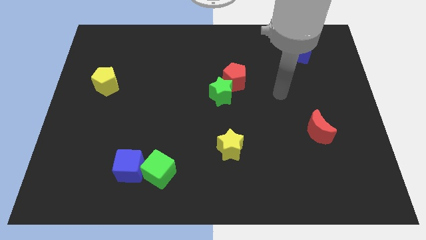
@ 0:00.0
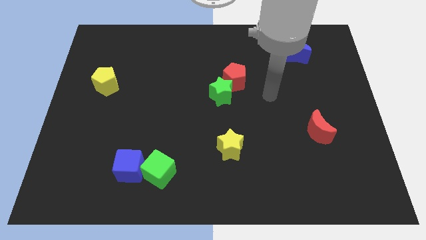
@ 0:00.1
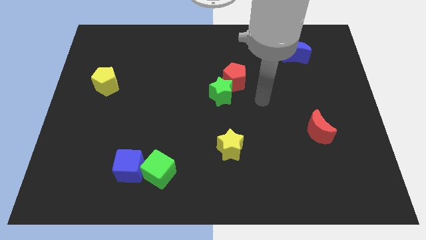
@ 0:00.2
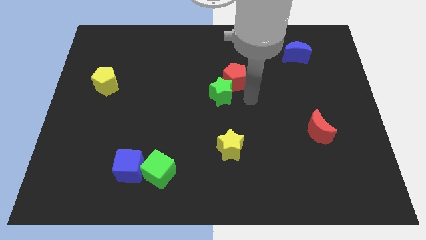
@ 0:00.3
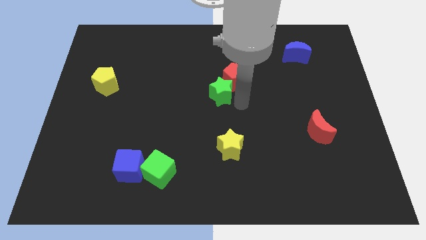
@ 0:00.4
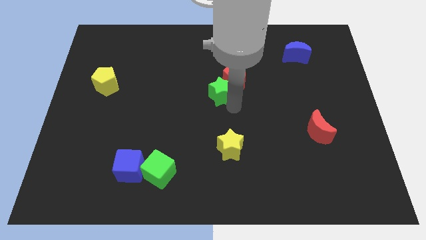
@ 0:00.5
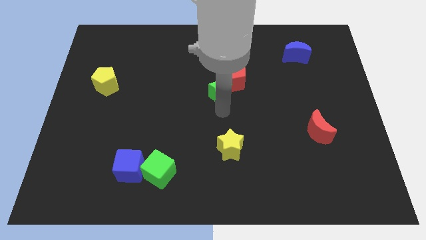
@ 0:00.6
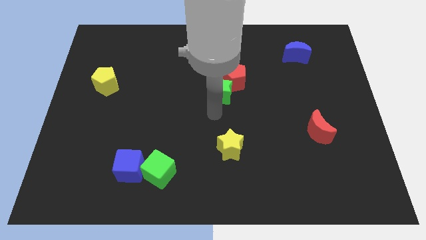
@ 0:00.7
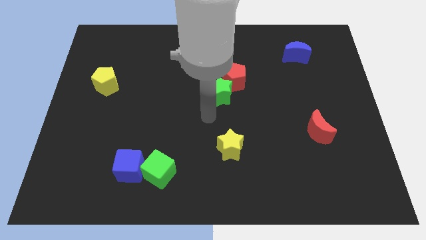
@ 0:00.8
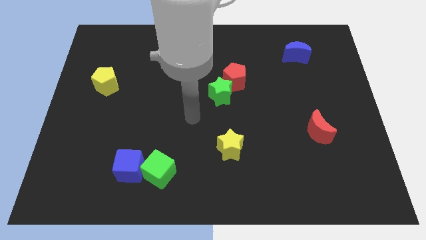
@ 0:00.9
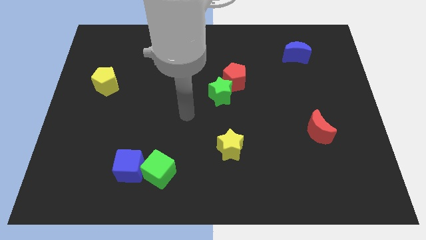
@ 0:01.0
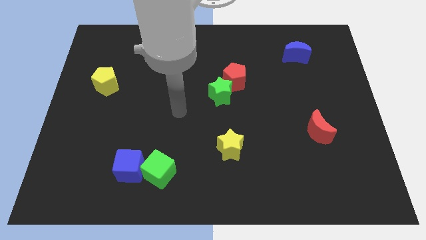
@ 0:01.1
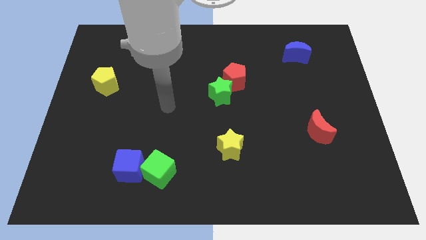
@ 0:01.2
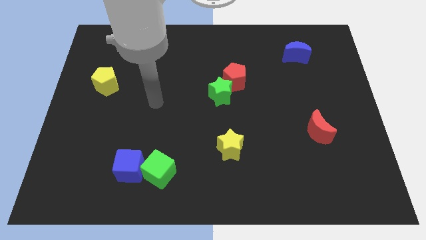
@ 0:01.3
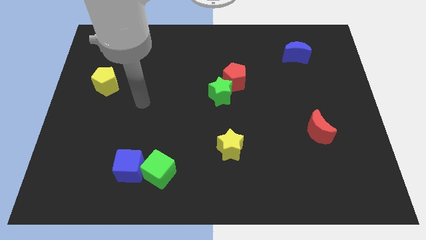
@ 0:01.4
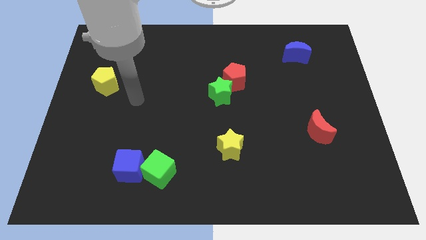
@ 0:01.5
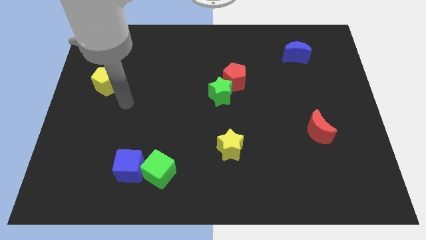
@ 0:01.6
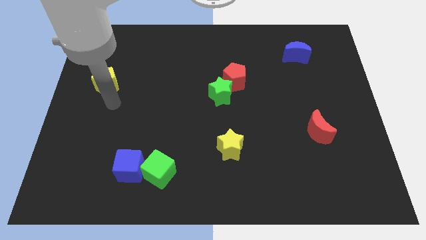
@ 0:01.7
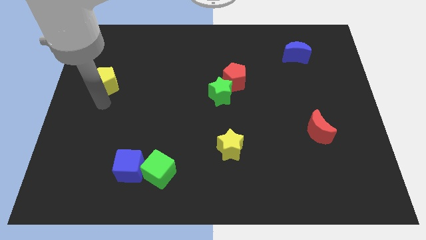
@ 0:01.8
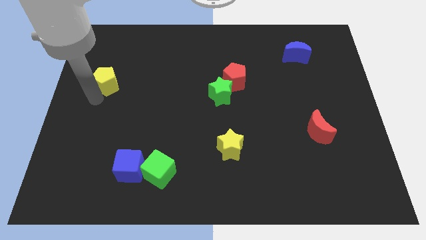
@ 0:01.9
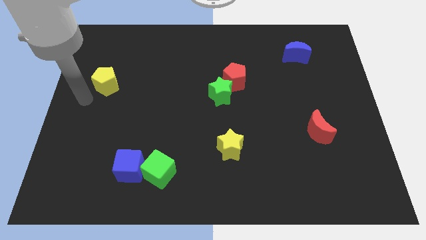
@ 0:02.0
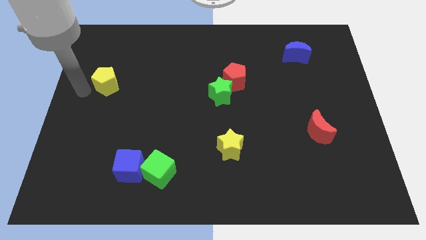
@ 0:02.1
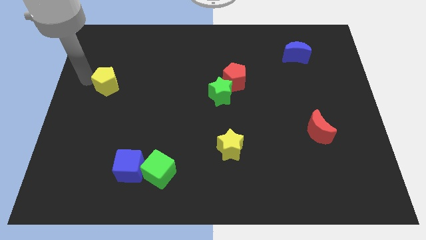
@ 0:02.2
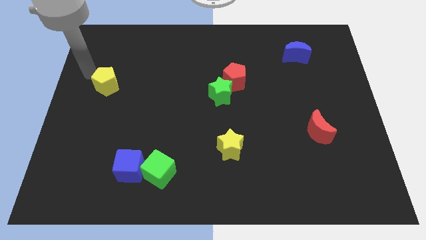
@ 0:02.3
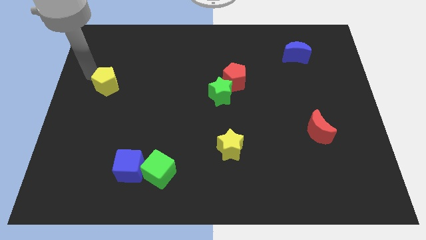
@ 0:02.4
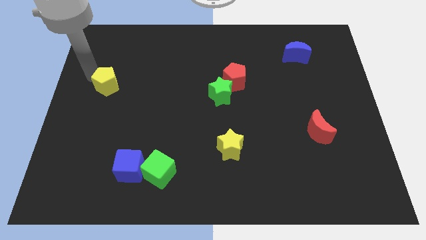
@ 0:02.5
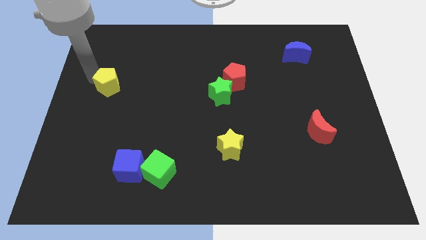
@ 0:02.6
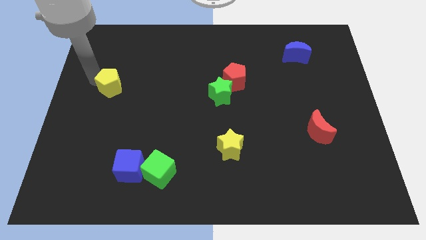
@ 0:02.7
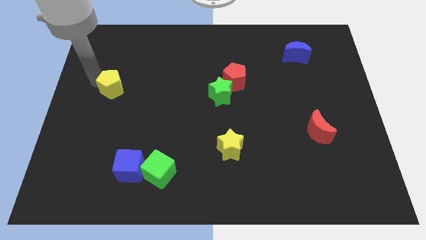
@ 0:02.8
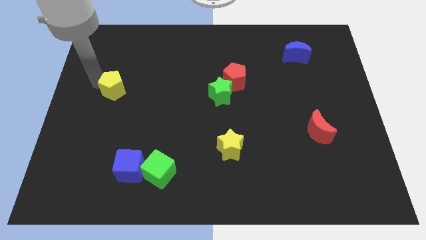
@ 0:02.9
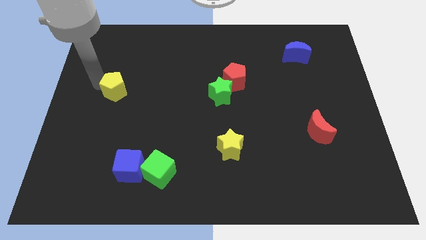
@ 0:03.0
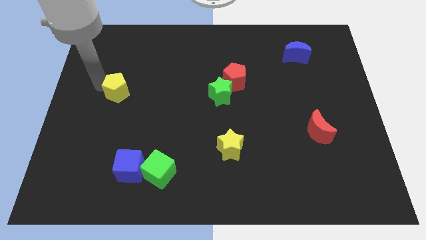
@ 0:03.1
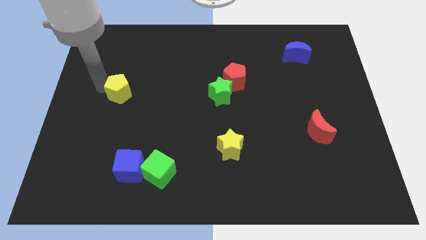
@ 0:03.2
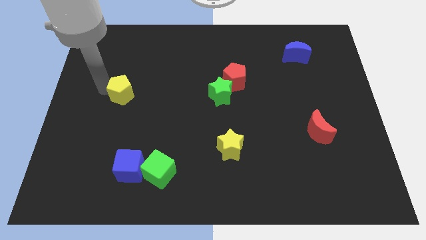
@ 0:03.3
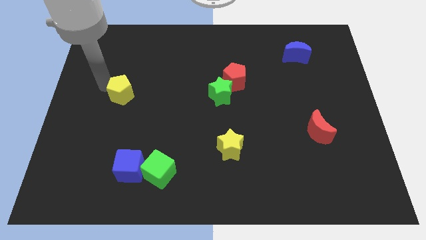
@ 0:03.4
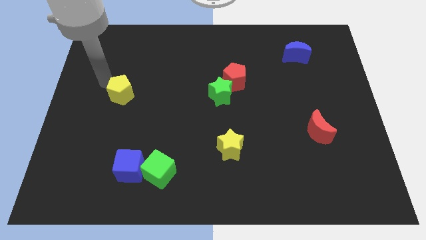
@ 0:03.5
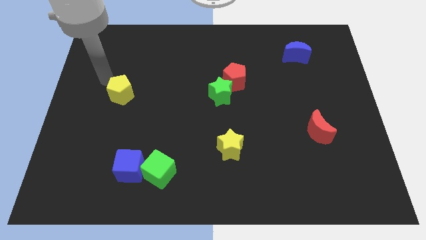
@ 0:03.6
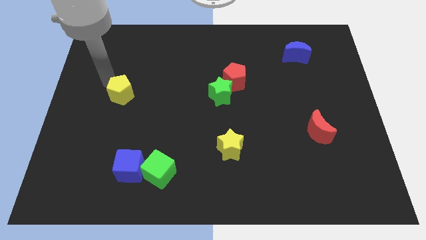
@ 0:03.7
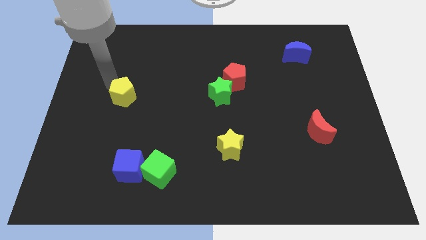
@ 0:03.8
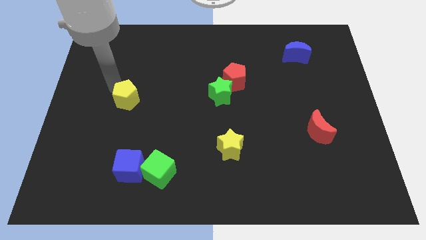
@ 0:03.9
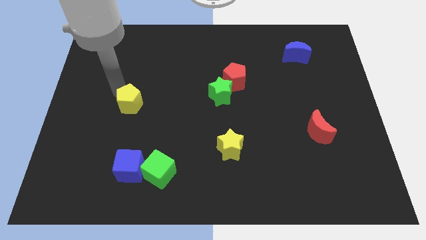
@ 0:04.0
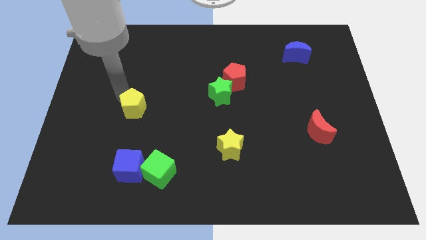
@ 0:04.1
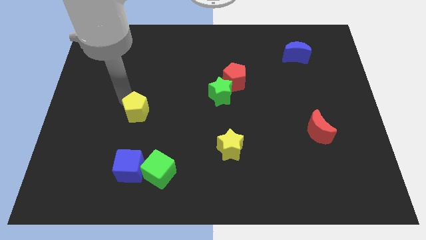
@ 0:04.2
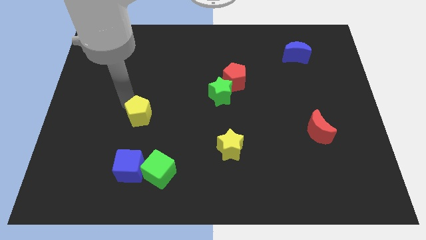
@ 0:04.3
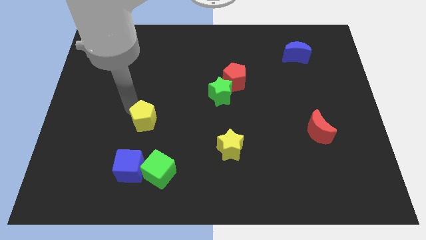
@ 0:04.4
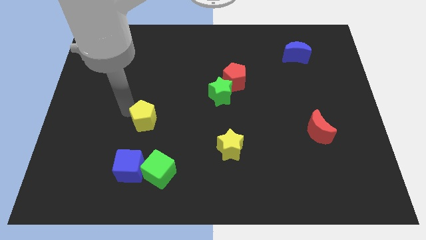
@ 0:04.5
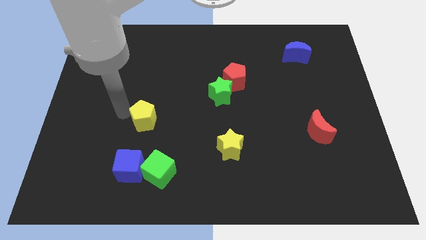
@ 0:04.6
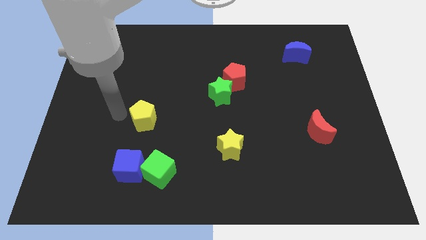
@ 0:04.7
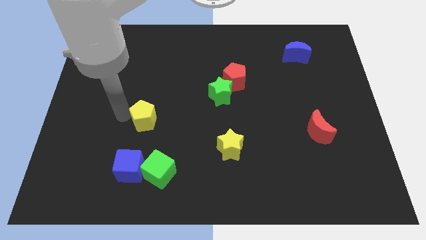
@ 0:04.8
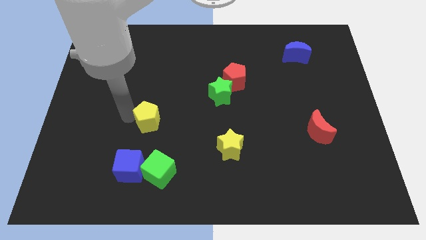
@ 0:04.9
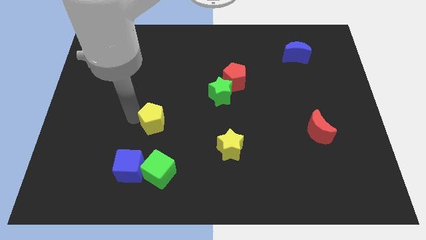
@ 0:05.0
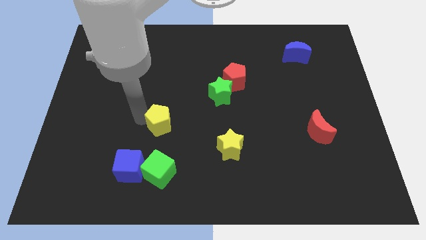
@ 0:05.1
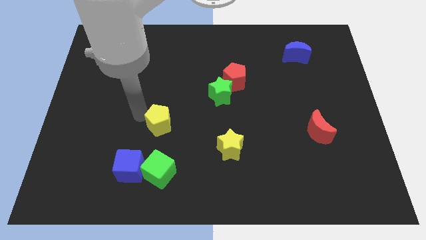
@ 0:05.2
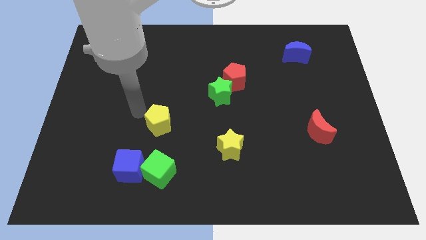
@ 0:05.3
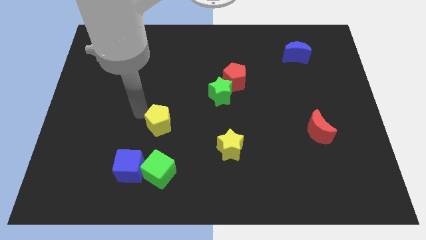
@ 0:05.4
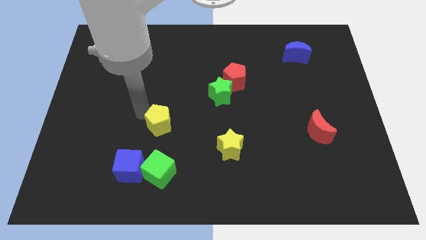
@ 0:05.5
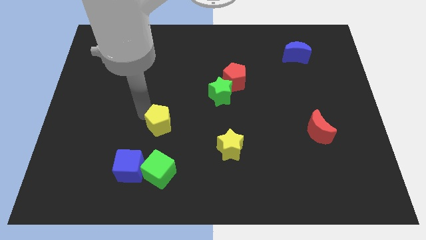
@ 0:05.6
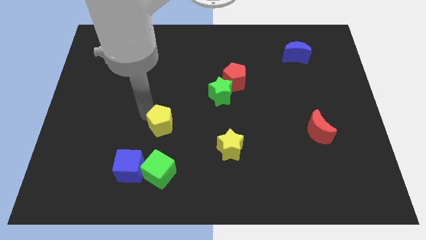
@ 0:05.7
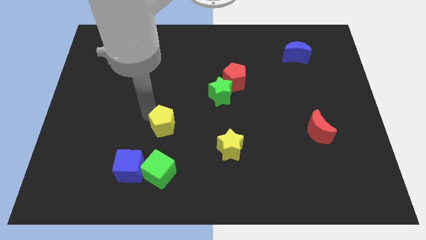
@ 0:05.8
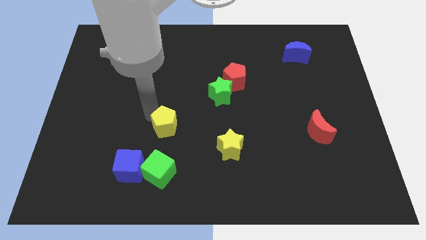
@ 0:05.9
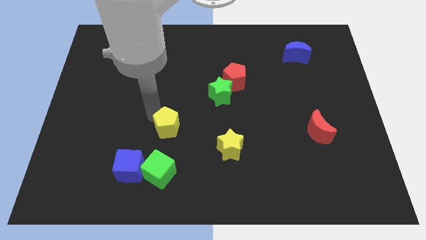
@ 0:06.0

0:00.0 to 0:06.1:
push the yellow pentagon downwards and then right

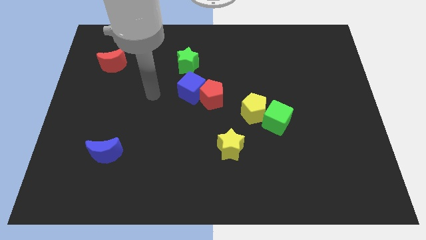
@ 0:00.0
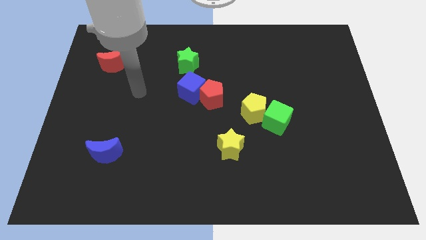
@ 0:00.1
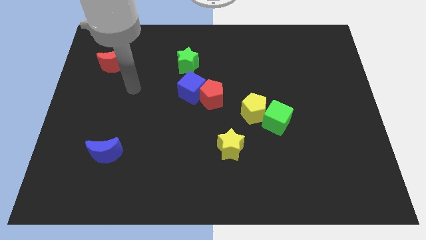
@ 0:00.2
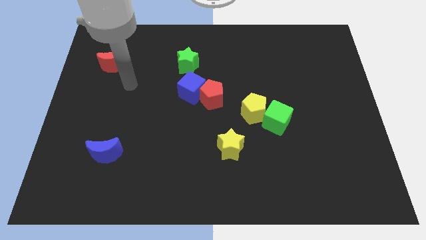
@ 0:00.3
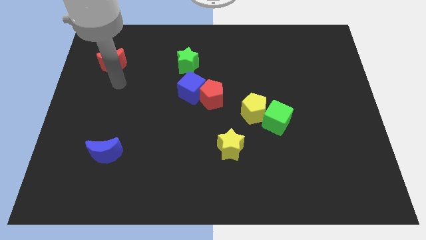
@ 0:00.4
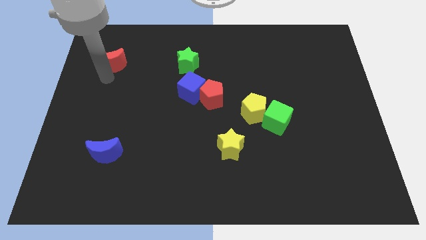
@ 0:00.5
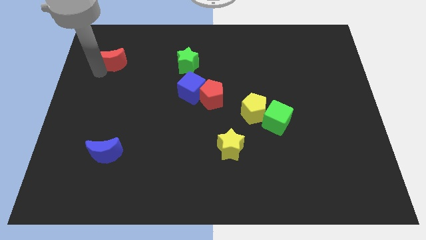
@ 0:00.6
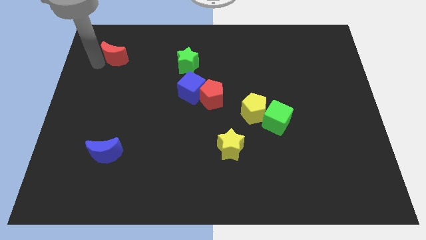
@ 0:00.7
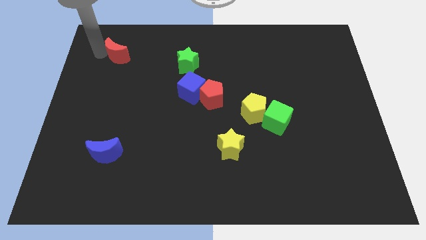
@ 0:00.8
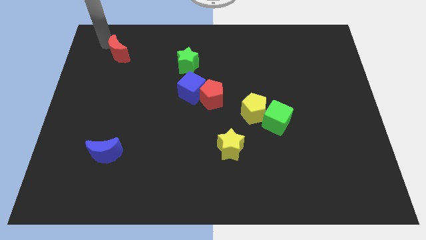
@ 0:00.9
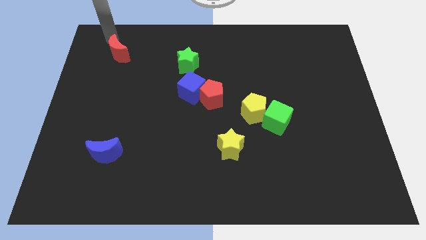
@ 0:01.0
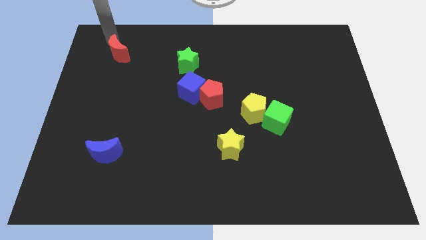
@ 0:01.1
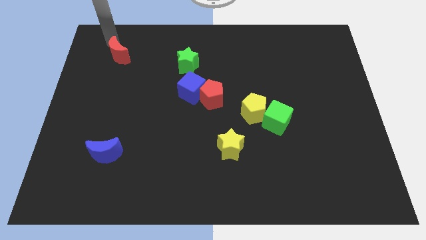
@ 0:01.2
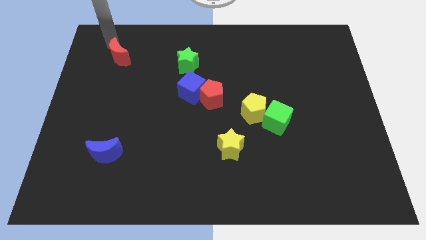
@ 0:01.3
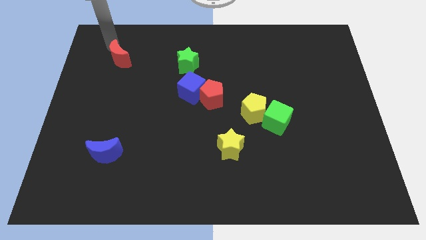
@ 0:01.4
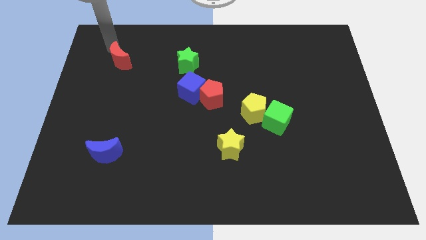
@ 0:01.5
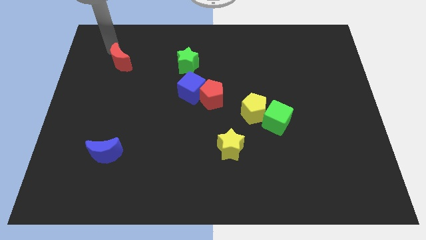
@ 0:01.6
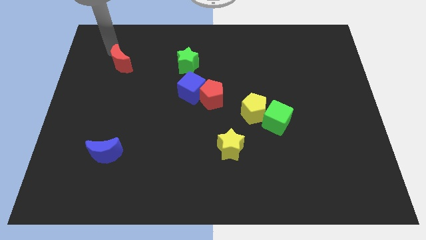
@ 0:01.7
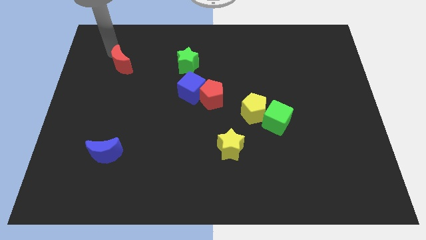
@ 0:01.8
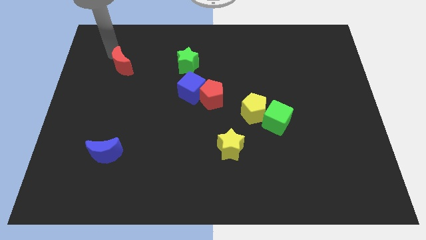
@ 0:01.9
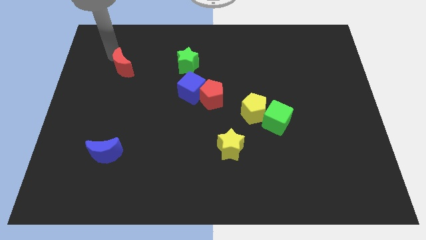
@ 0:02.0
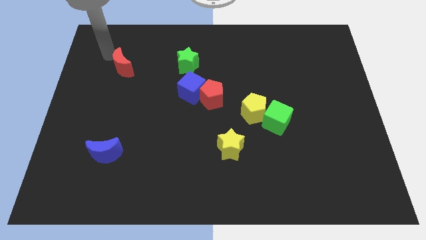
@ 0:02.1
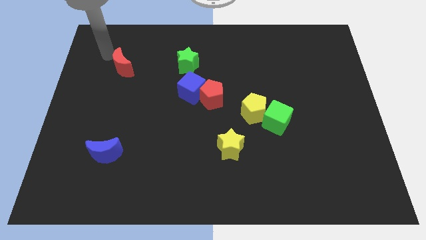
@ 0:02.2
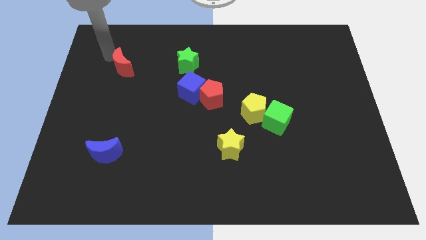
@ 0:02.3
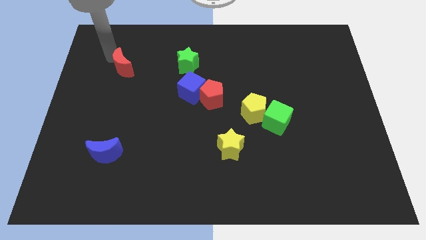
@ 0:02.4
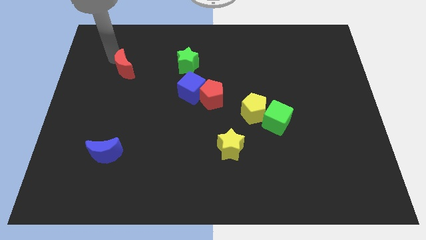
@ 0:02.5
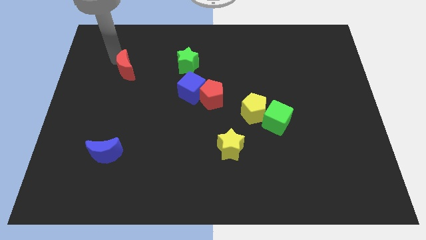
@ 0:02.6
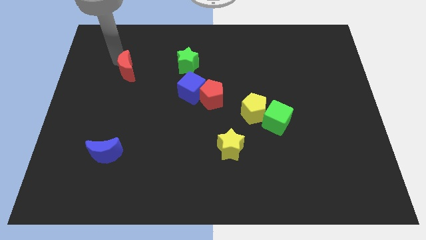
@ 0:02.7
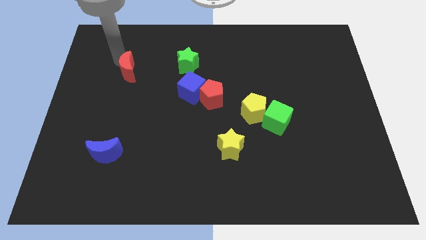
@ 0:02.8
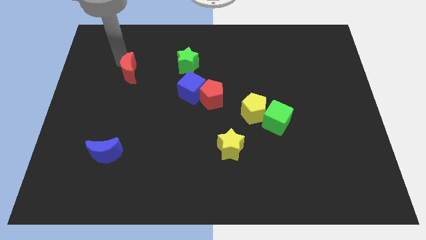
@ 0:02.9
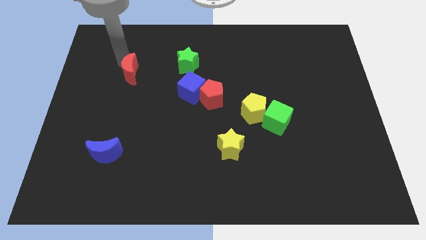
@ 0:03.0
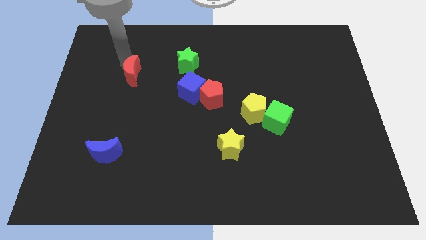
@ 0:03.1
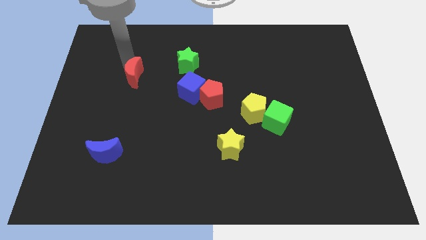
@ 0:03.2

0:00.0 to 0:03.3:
slide the red moon a little bit diagonally downwards and right
